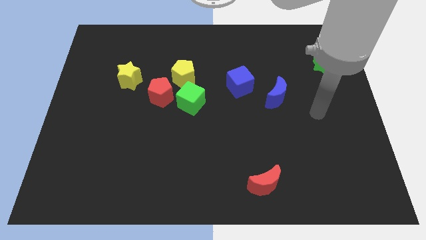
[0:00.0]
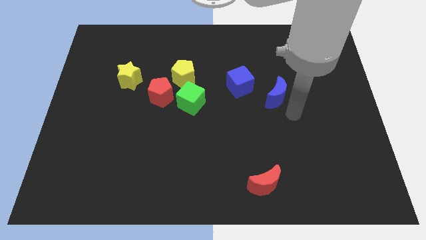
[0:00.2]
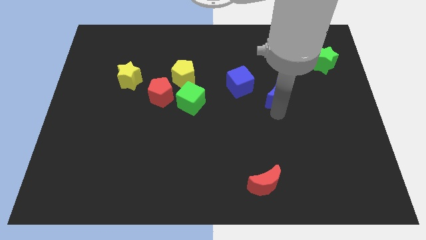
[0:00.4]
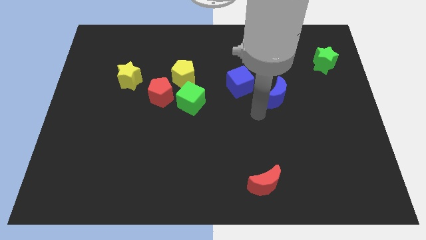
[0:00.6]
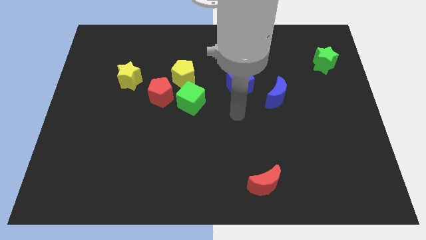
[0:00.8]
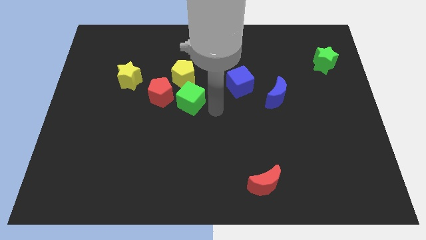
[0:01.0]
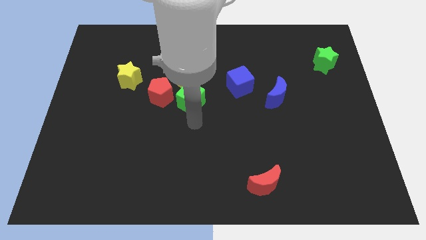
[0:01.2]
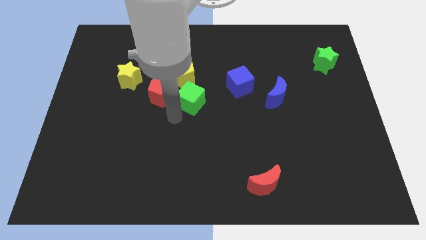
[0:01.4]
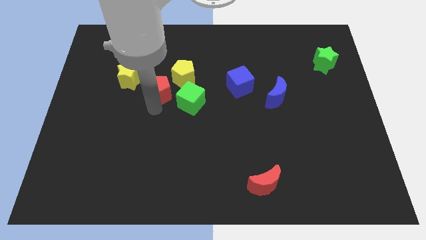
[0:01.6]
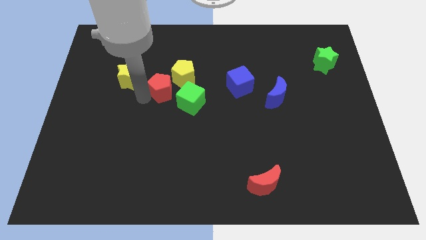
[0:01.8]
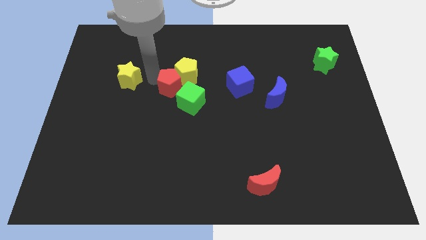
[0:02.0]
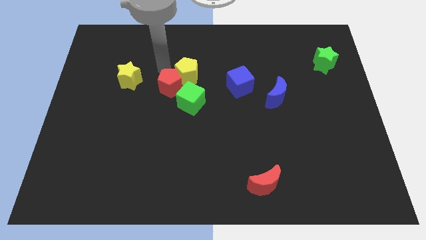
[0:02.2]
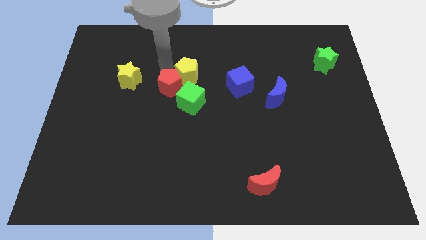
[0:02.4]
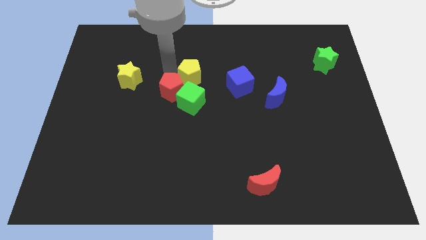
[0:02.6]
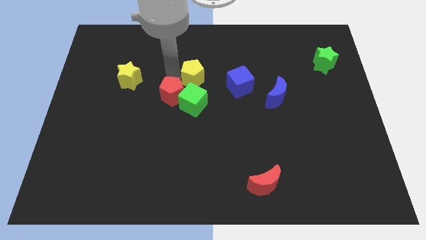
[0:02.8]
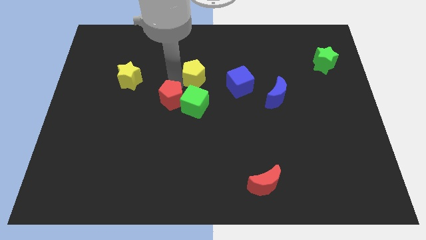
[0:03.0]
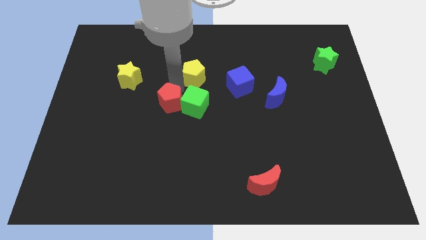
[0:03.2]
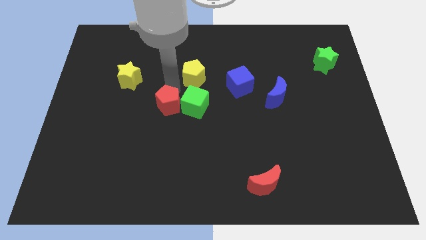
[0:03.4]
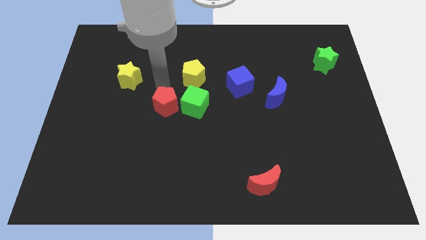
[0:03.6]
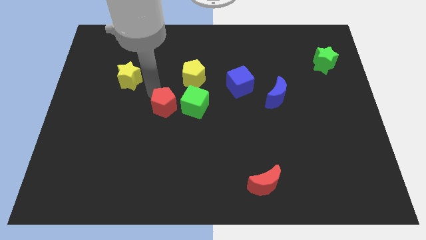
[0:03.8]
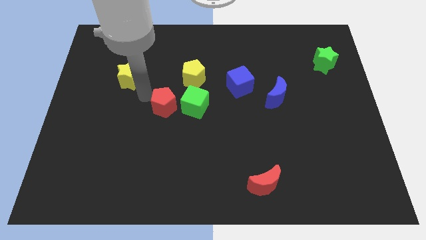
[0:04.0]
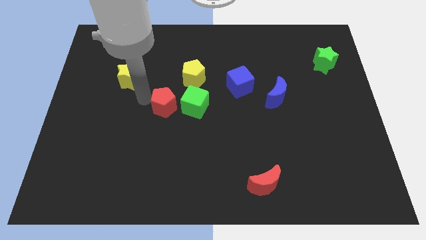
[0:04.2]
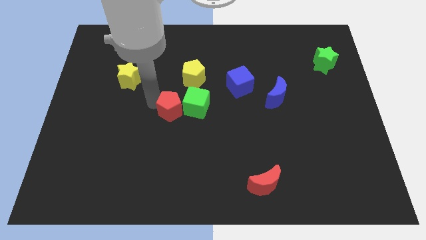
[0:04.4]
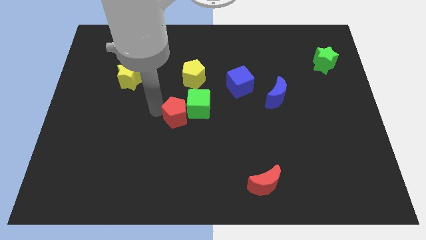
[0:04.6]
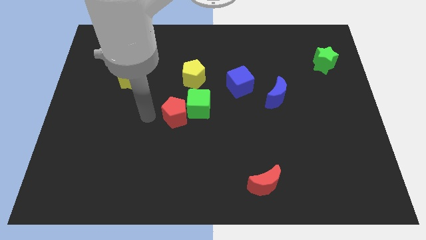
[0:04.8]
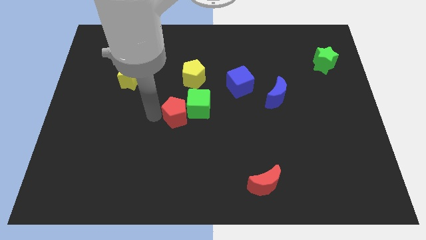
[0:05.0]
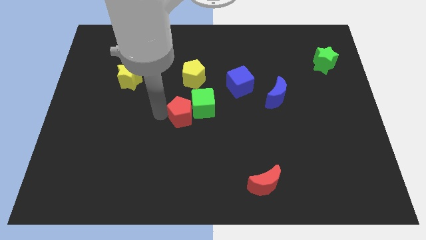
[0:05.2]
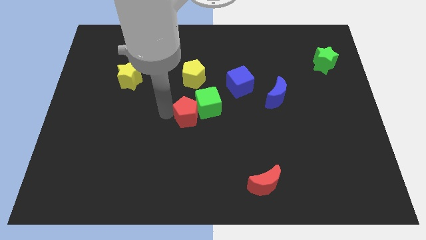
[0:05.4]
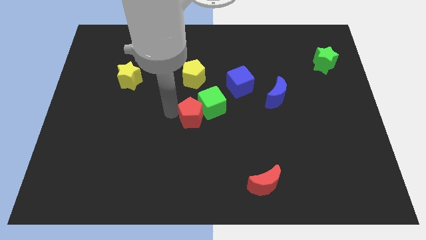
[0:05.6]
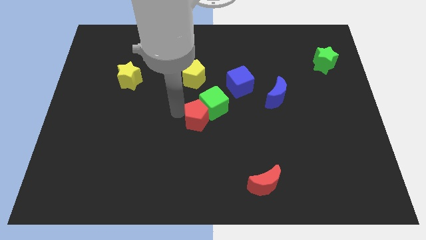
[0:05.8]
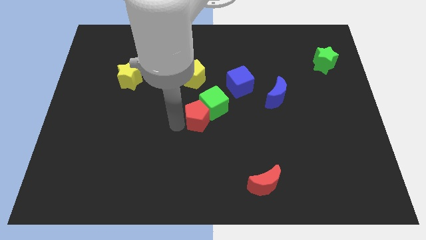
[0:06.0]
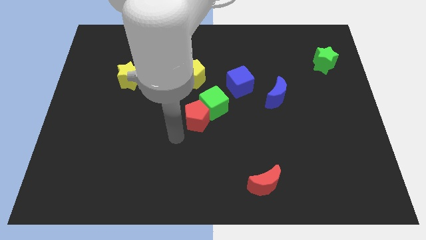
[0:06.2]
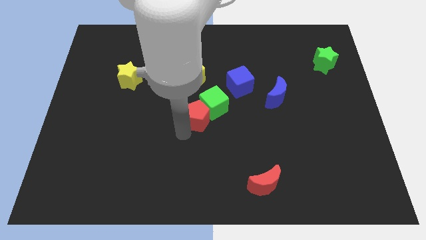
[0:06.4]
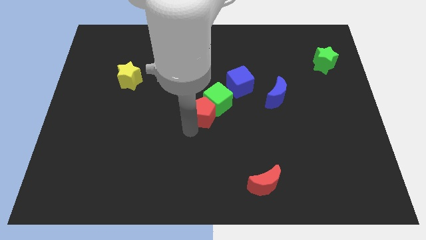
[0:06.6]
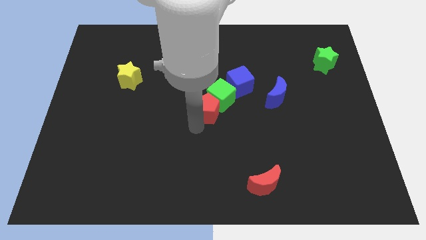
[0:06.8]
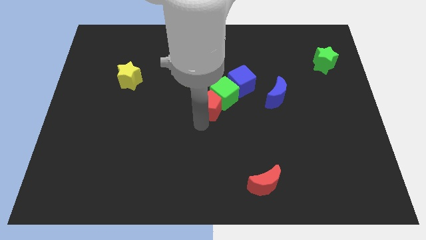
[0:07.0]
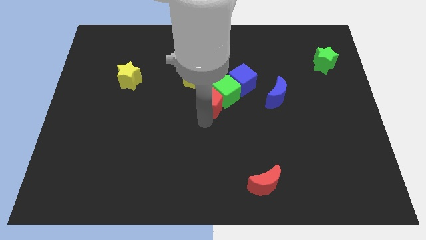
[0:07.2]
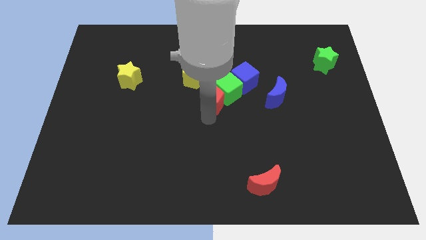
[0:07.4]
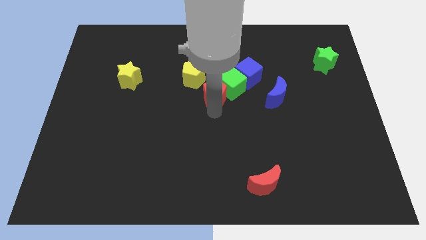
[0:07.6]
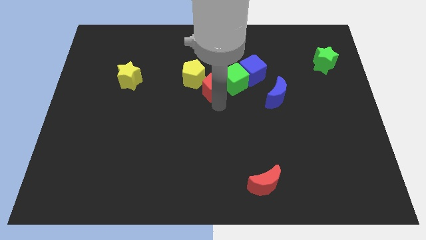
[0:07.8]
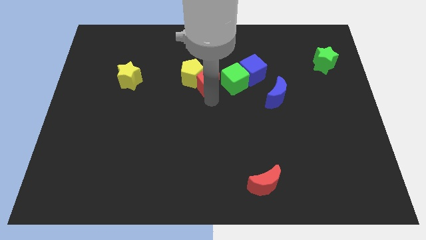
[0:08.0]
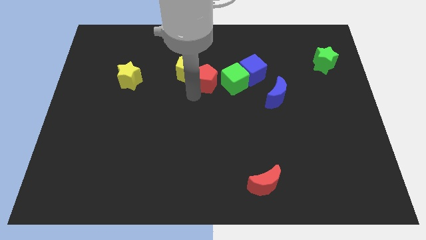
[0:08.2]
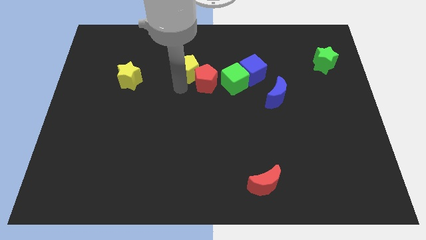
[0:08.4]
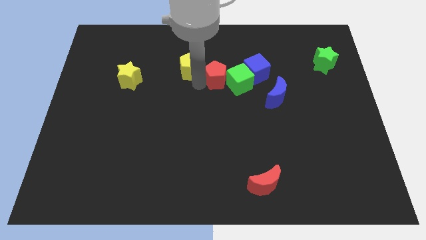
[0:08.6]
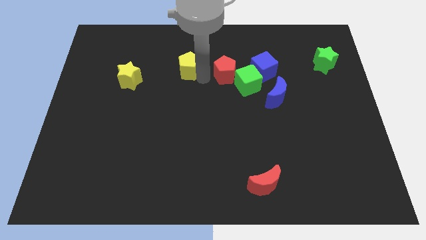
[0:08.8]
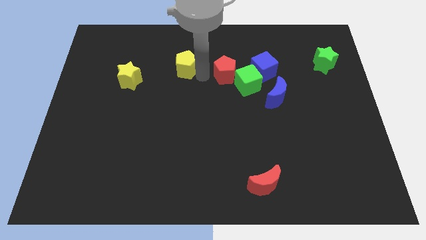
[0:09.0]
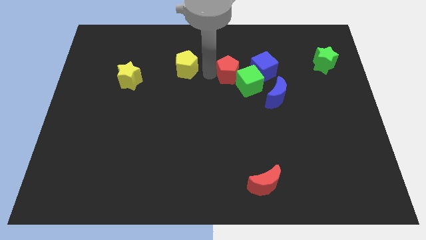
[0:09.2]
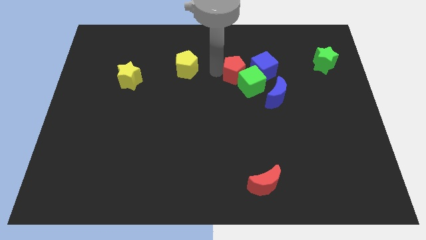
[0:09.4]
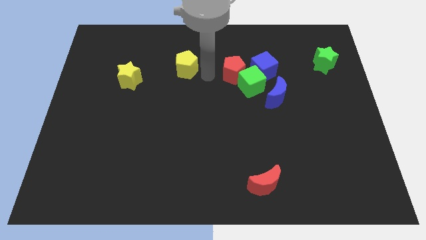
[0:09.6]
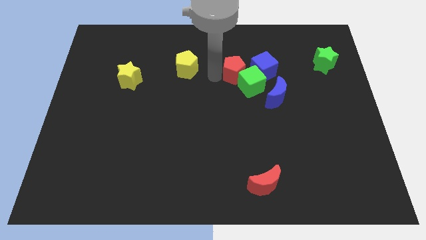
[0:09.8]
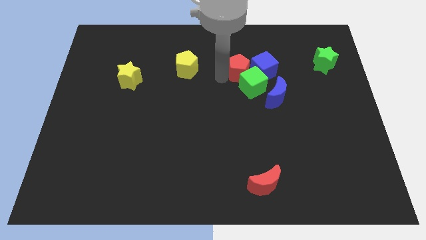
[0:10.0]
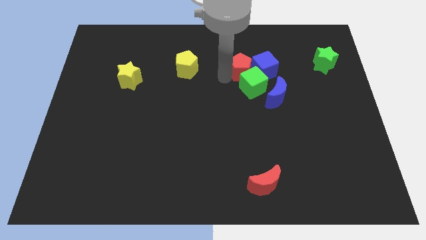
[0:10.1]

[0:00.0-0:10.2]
move the red pentagon towards the blue cube

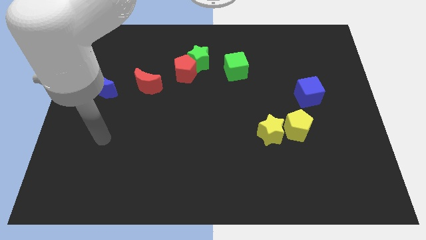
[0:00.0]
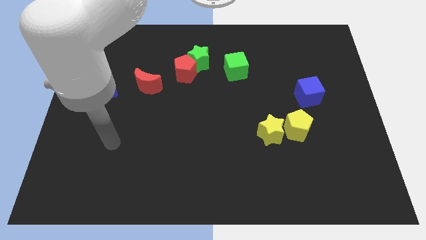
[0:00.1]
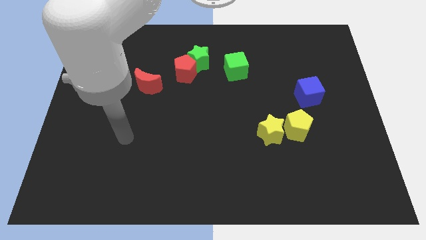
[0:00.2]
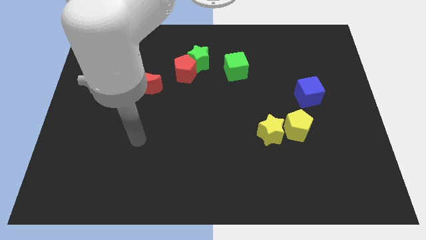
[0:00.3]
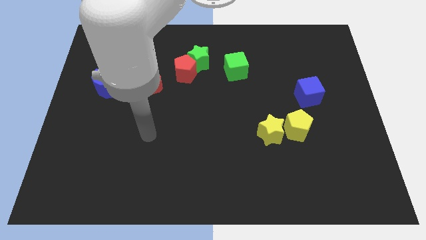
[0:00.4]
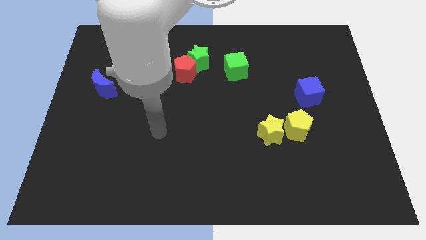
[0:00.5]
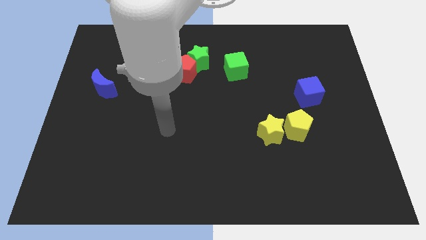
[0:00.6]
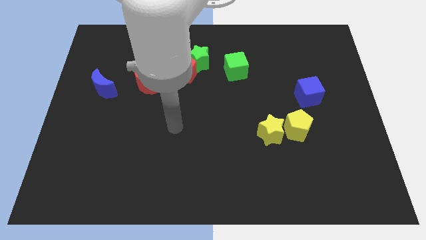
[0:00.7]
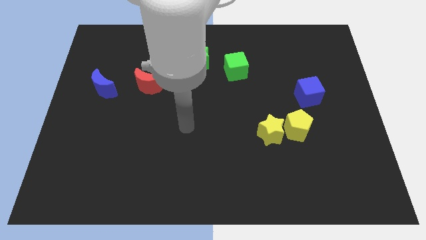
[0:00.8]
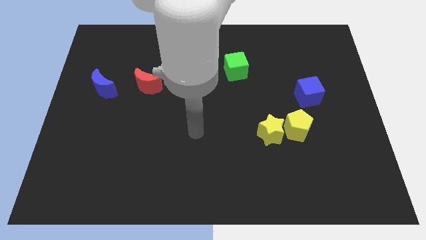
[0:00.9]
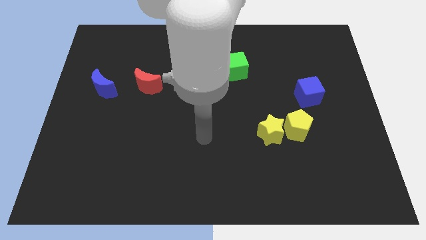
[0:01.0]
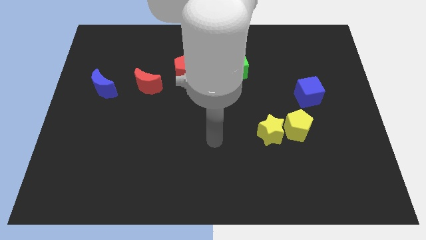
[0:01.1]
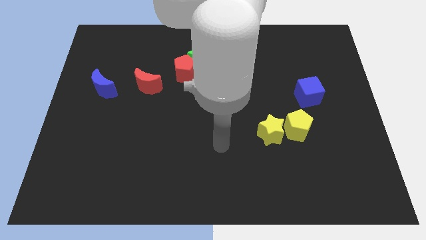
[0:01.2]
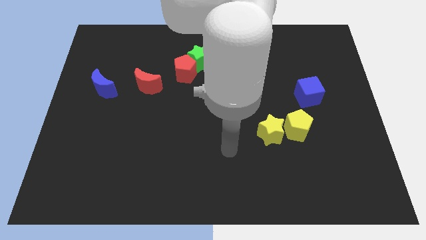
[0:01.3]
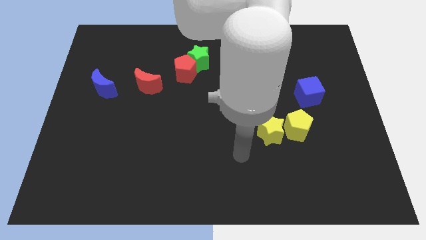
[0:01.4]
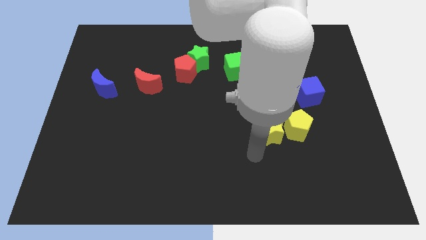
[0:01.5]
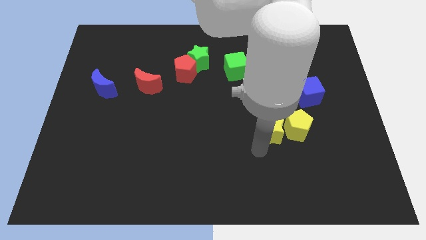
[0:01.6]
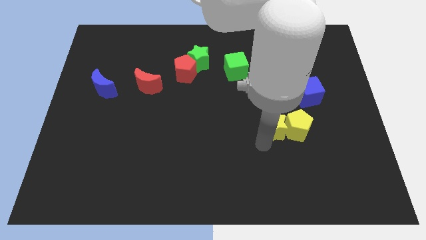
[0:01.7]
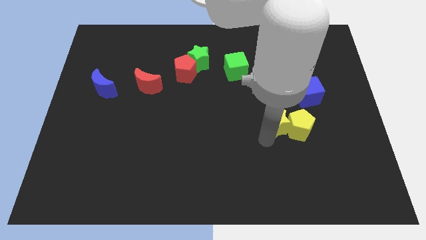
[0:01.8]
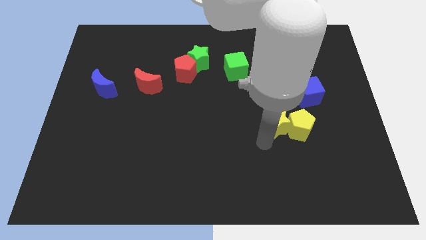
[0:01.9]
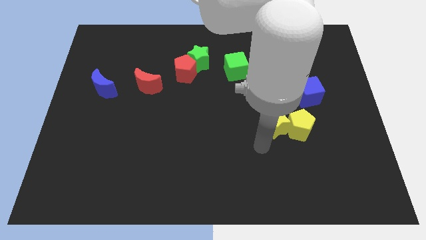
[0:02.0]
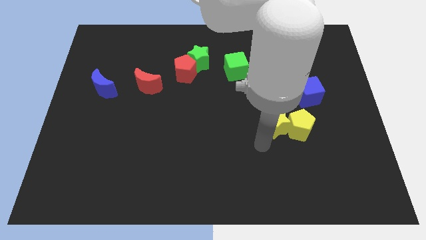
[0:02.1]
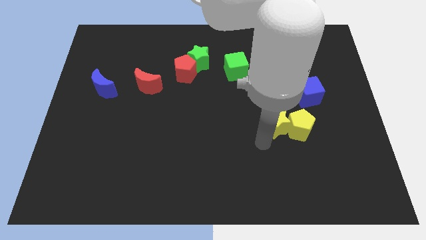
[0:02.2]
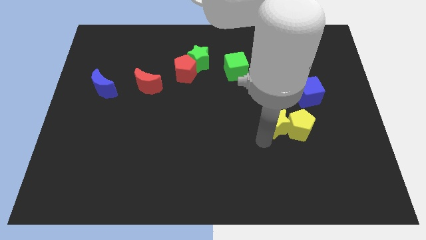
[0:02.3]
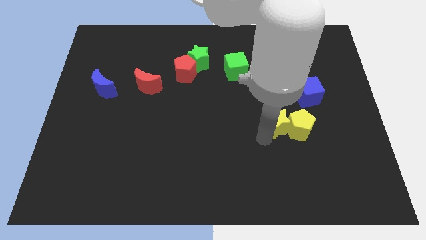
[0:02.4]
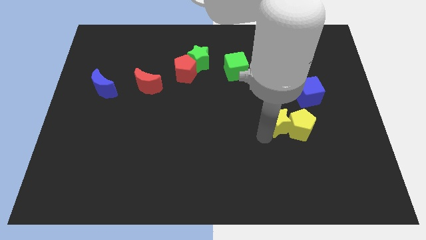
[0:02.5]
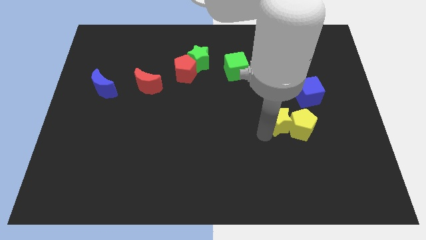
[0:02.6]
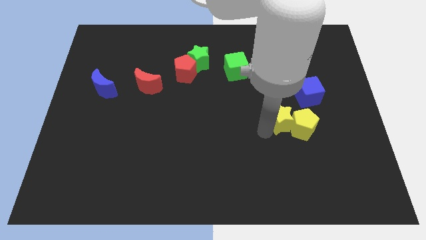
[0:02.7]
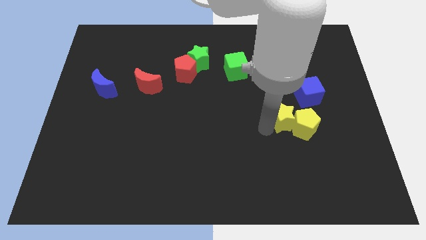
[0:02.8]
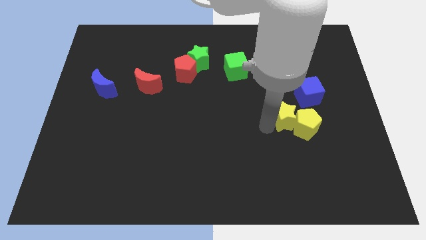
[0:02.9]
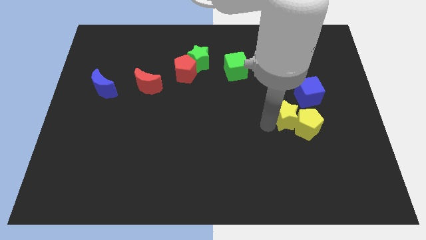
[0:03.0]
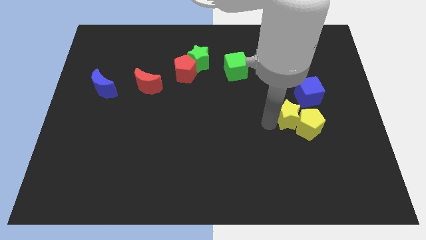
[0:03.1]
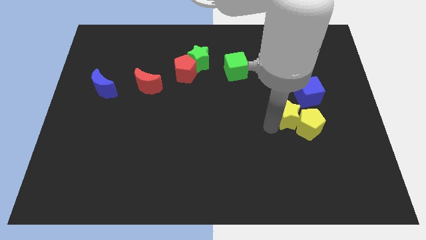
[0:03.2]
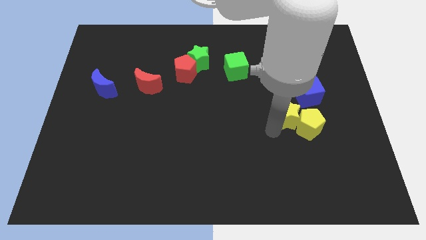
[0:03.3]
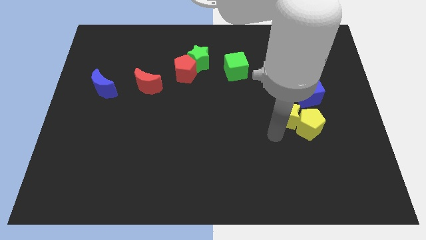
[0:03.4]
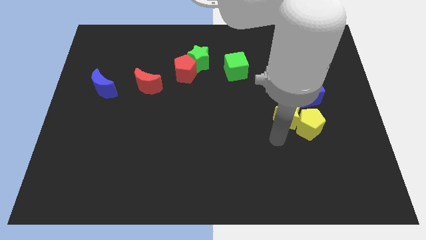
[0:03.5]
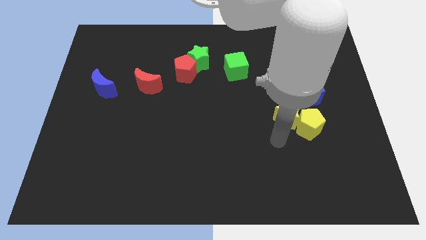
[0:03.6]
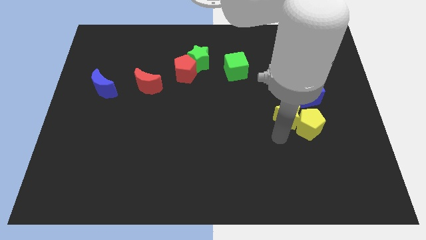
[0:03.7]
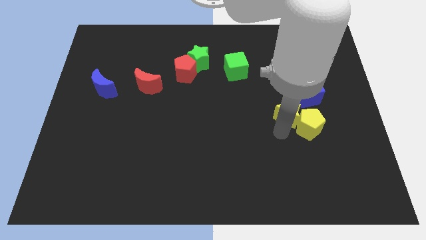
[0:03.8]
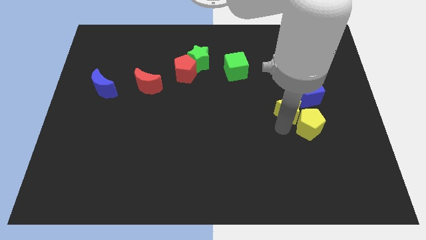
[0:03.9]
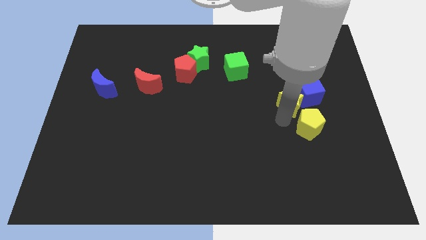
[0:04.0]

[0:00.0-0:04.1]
slide the yellow star to the blue cube
